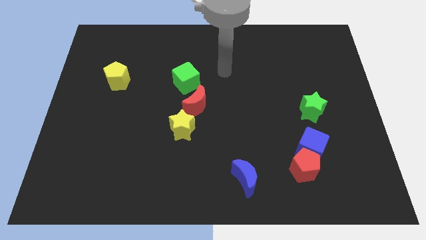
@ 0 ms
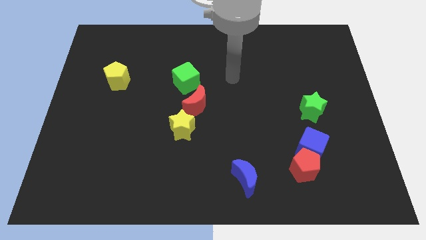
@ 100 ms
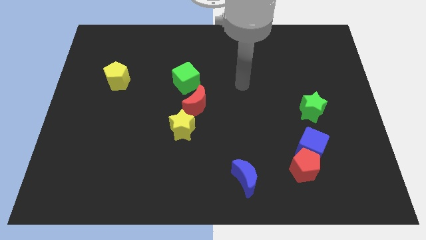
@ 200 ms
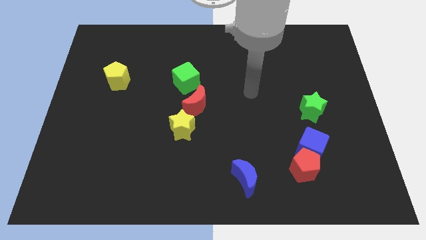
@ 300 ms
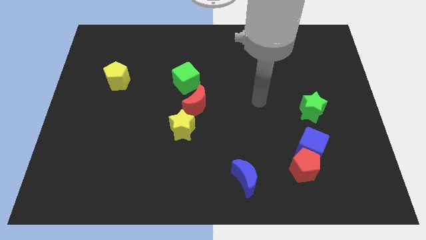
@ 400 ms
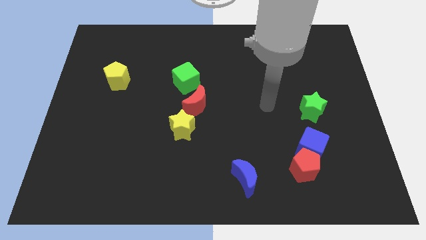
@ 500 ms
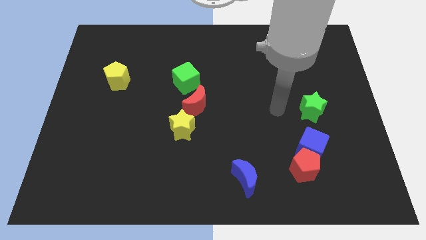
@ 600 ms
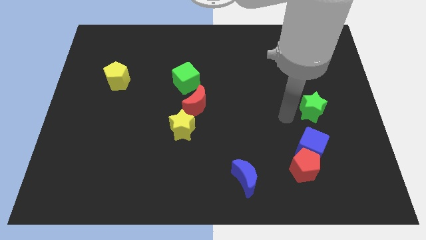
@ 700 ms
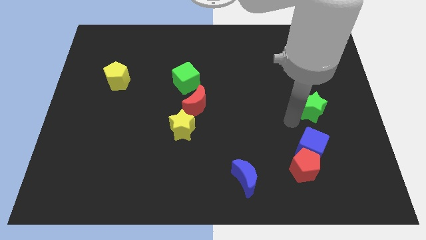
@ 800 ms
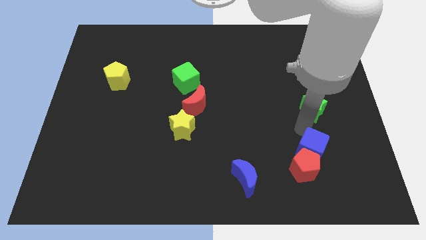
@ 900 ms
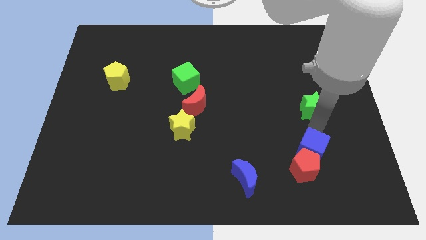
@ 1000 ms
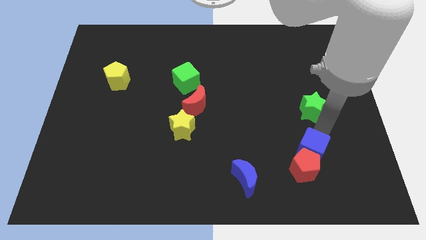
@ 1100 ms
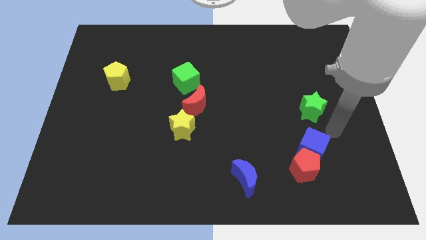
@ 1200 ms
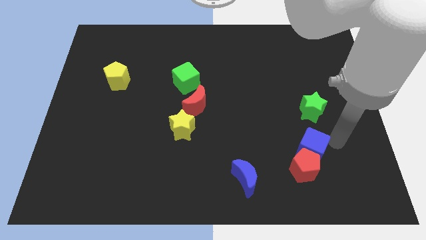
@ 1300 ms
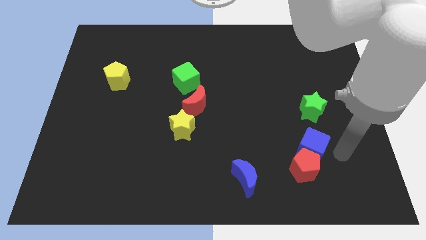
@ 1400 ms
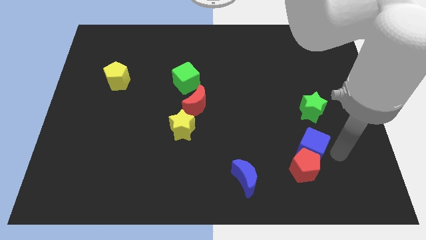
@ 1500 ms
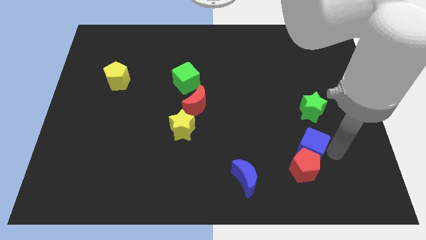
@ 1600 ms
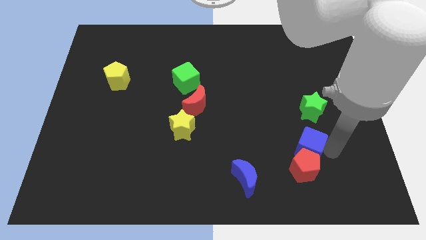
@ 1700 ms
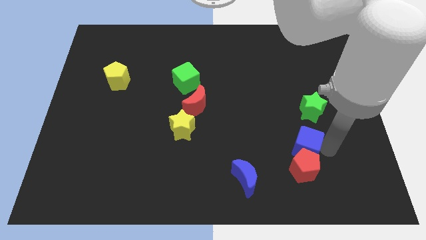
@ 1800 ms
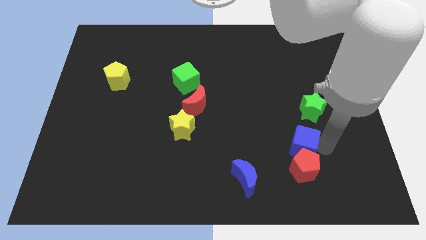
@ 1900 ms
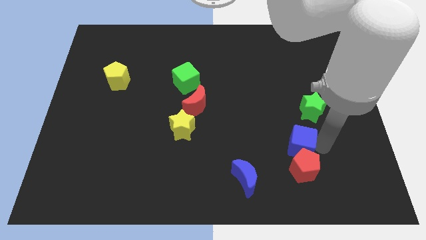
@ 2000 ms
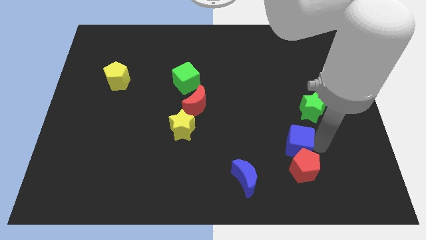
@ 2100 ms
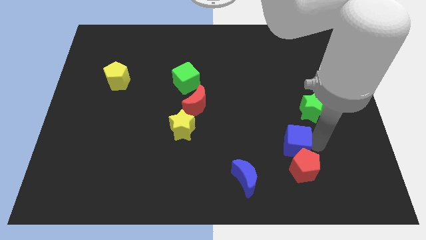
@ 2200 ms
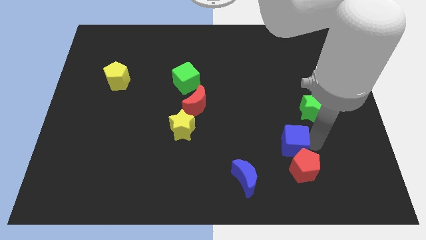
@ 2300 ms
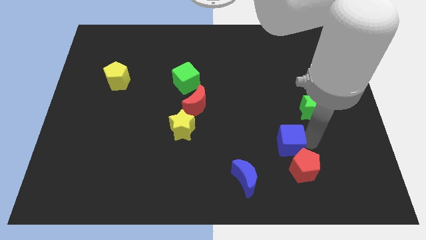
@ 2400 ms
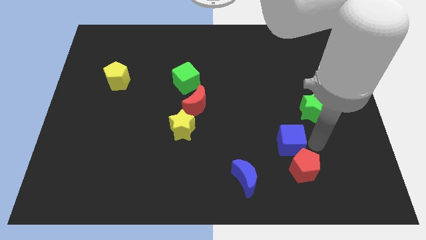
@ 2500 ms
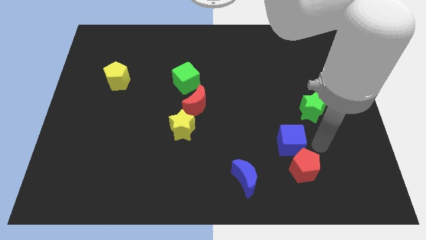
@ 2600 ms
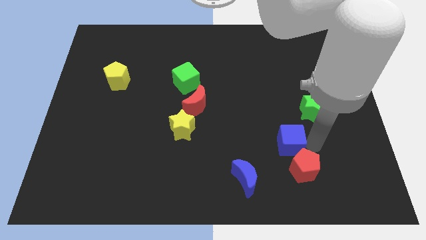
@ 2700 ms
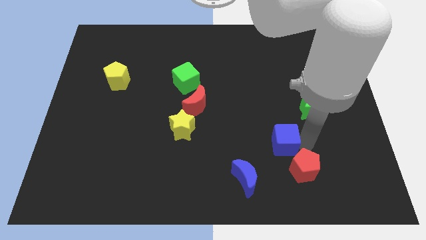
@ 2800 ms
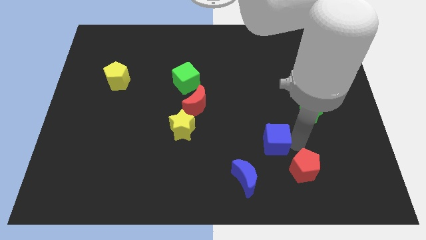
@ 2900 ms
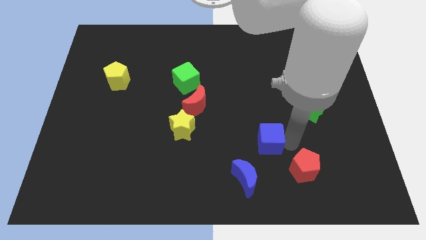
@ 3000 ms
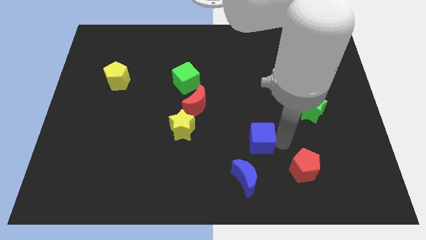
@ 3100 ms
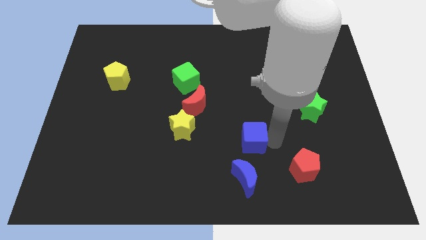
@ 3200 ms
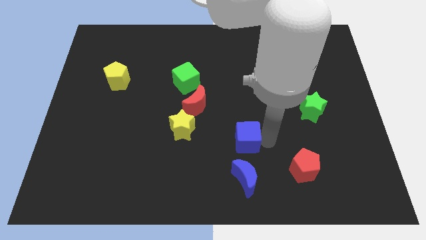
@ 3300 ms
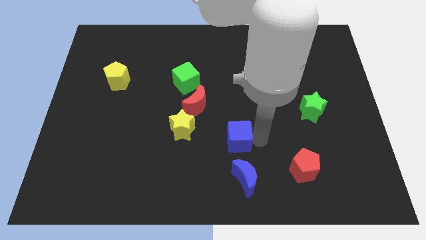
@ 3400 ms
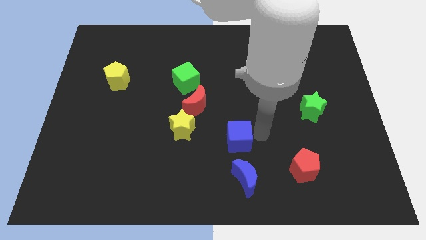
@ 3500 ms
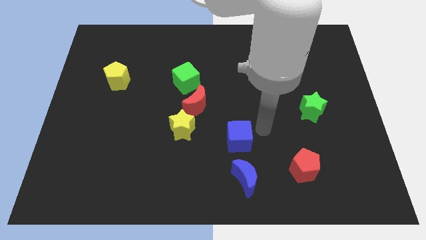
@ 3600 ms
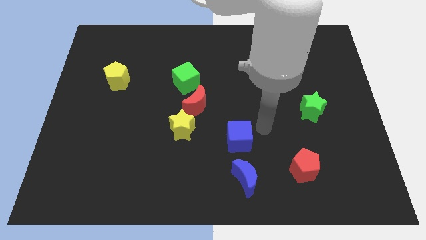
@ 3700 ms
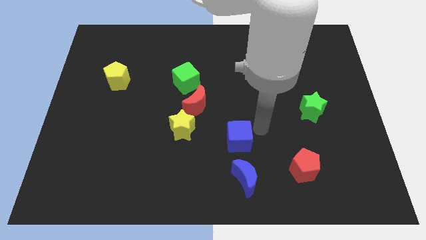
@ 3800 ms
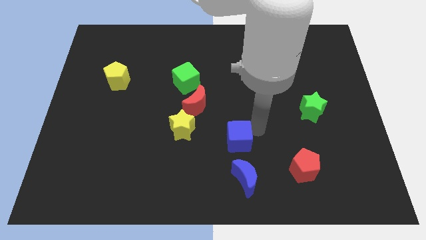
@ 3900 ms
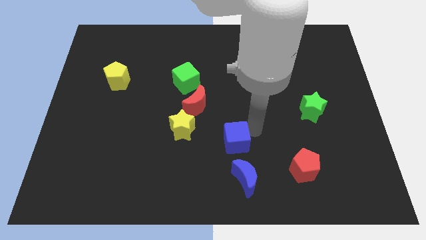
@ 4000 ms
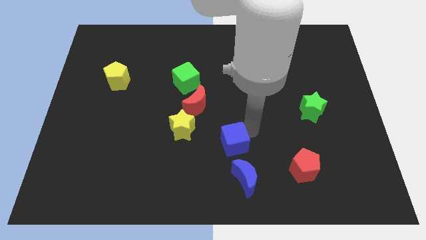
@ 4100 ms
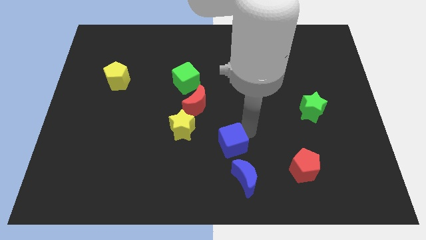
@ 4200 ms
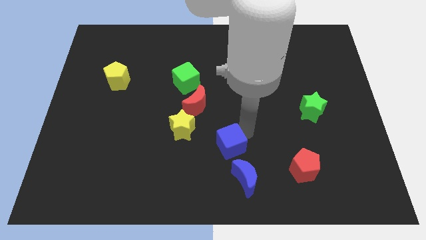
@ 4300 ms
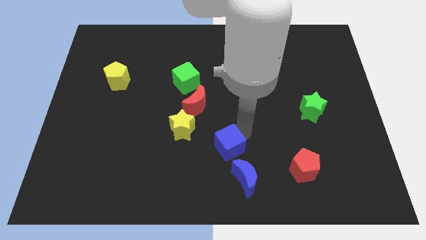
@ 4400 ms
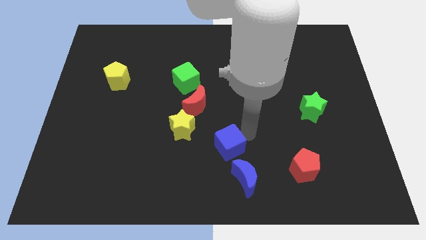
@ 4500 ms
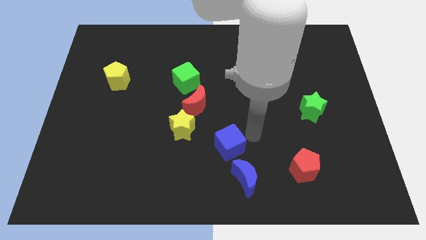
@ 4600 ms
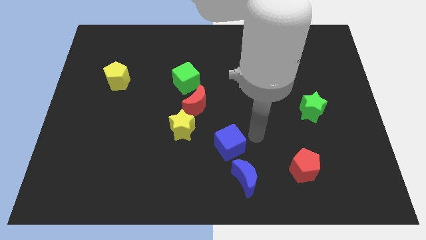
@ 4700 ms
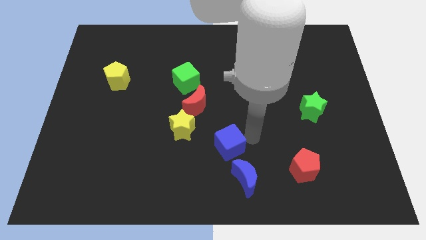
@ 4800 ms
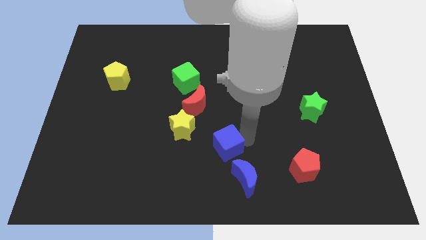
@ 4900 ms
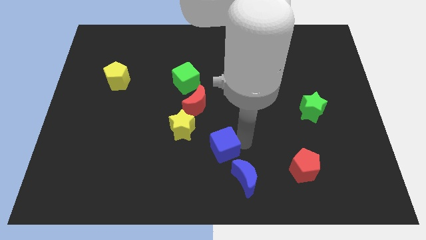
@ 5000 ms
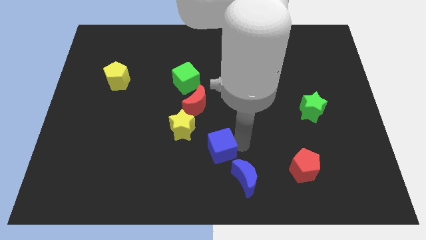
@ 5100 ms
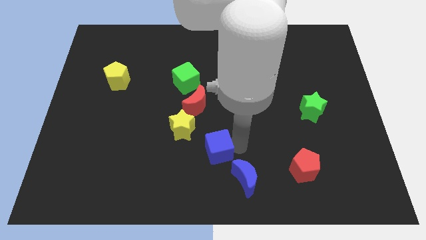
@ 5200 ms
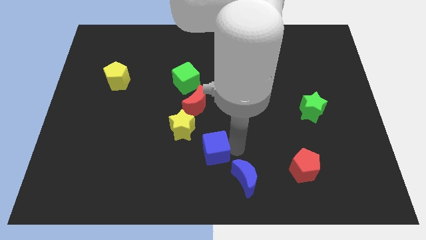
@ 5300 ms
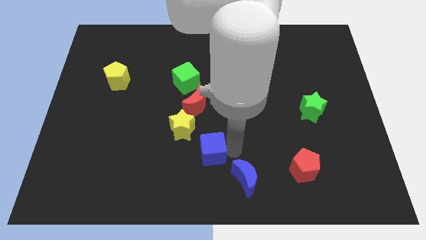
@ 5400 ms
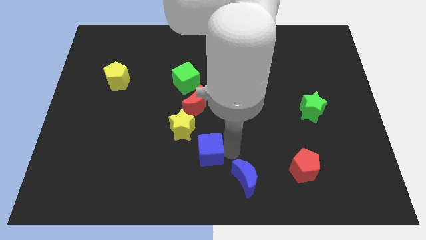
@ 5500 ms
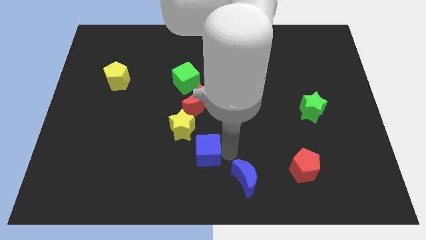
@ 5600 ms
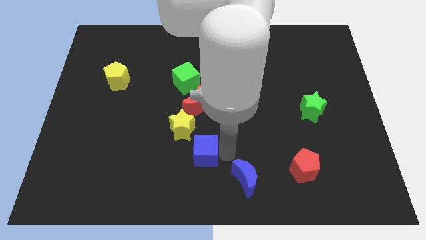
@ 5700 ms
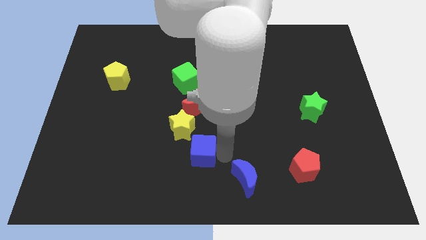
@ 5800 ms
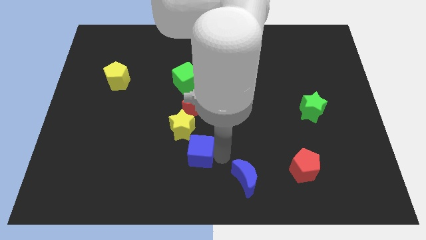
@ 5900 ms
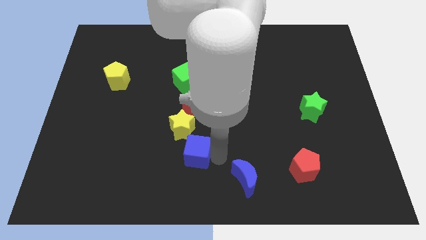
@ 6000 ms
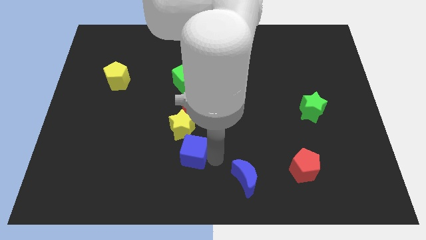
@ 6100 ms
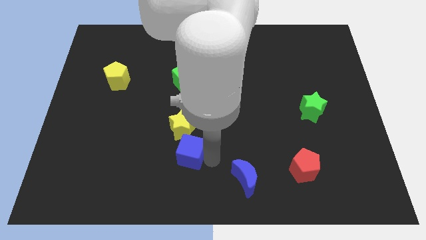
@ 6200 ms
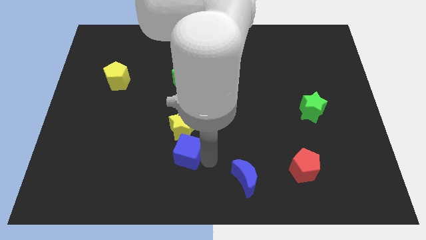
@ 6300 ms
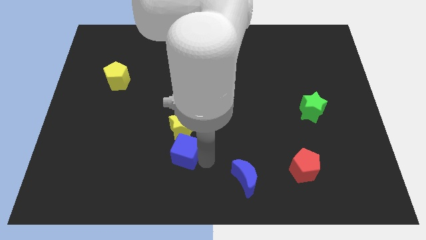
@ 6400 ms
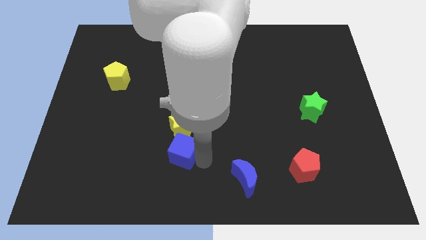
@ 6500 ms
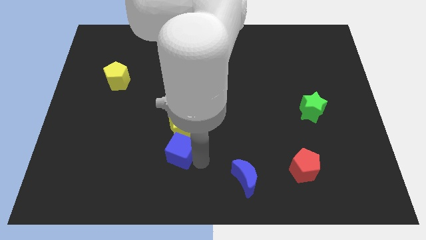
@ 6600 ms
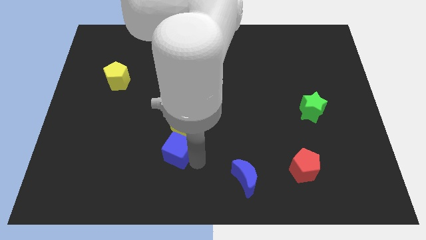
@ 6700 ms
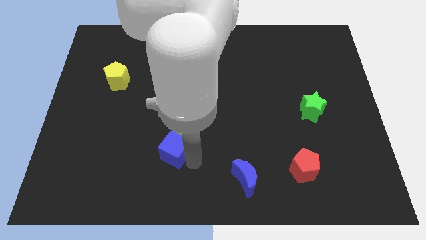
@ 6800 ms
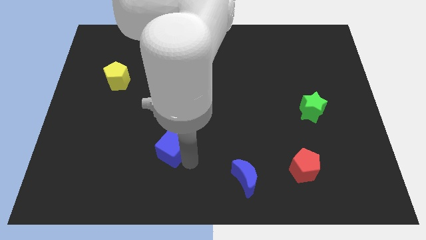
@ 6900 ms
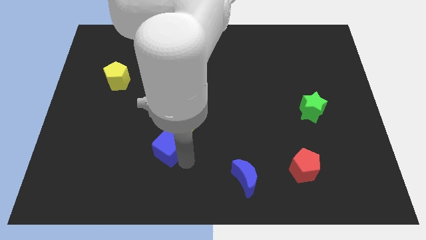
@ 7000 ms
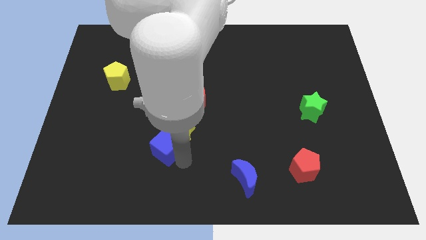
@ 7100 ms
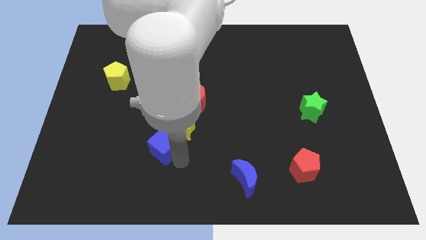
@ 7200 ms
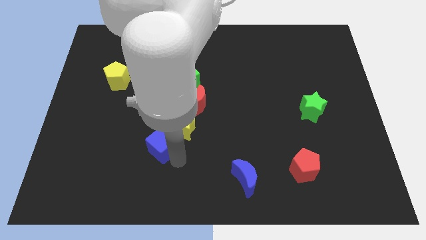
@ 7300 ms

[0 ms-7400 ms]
put the blue cube just left of the yellow star

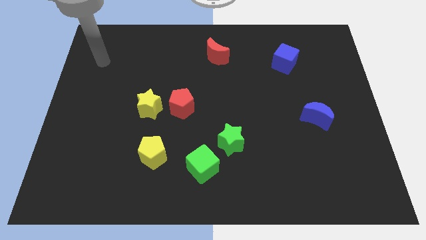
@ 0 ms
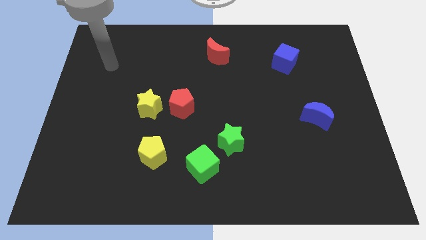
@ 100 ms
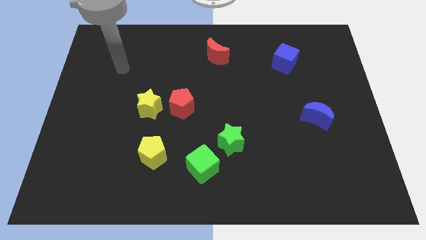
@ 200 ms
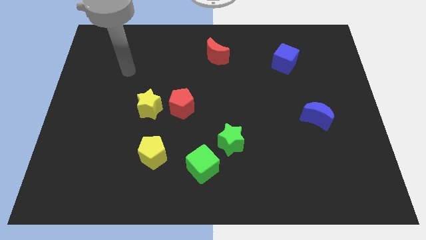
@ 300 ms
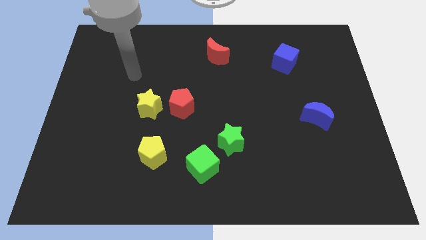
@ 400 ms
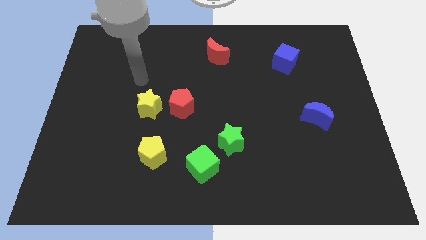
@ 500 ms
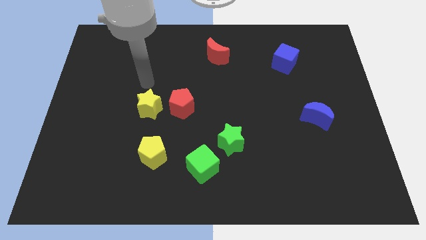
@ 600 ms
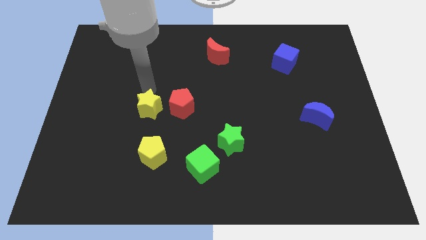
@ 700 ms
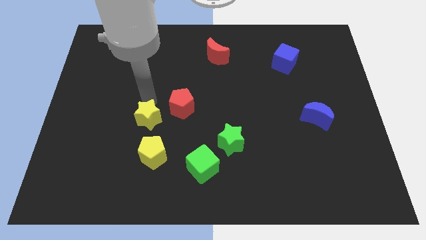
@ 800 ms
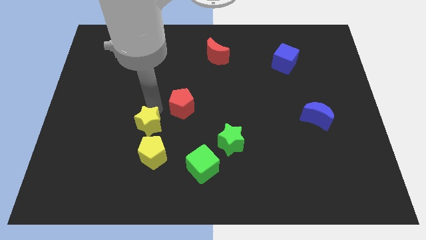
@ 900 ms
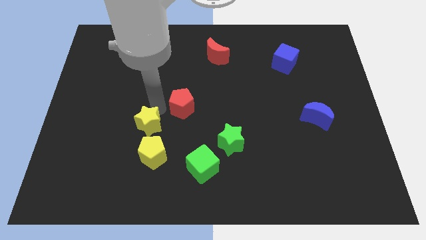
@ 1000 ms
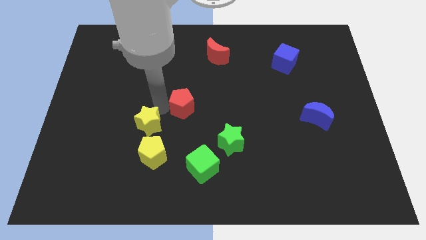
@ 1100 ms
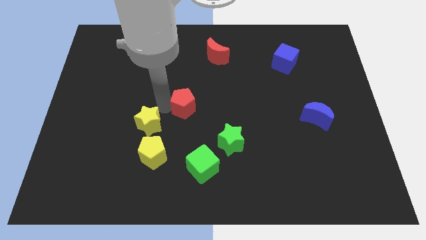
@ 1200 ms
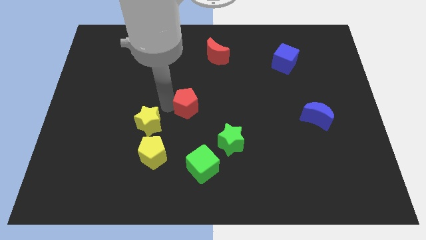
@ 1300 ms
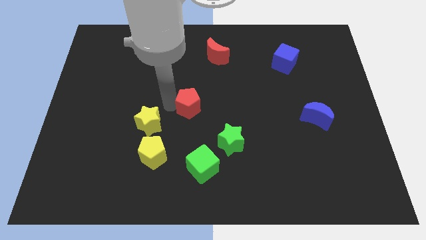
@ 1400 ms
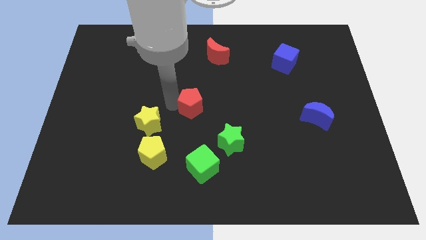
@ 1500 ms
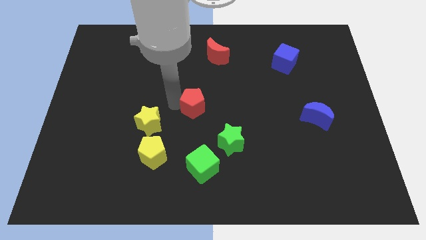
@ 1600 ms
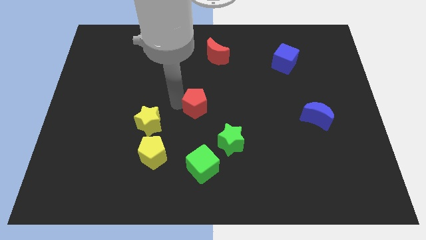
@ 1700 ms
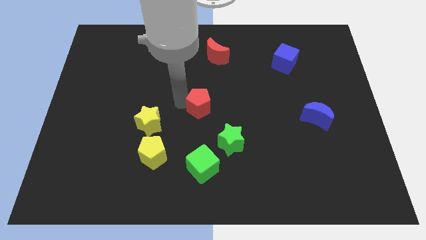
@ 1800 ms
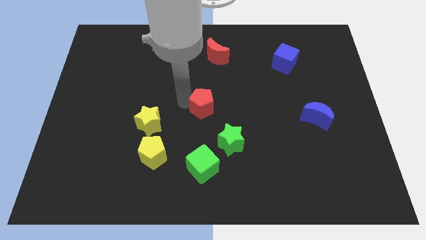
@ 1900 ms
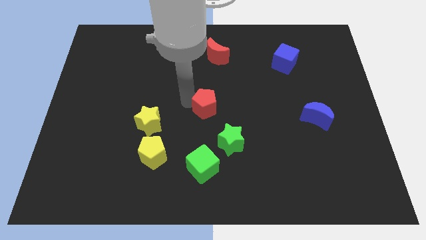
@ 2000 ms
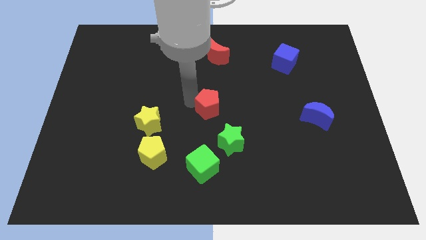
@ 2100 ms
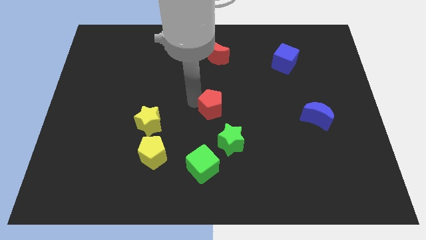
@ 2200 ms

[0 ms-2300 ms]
push the red pentagon to the top side of the green star
